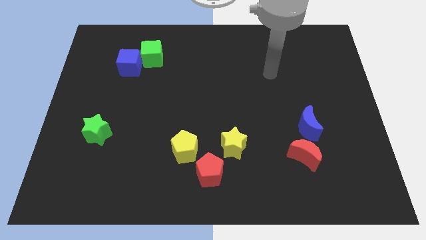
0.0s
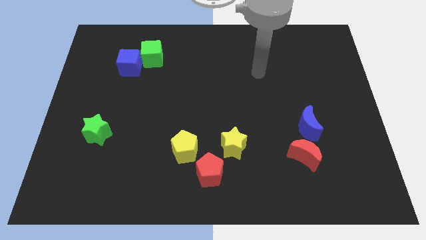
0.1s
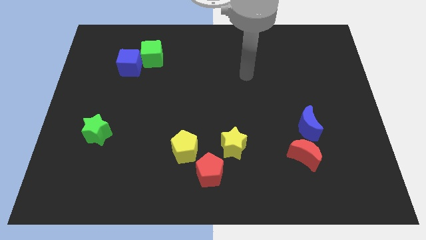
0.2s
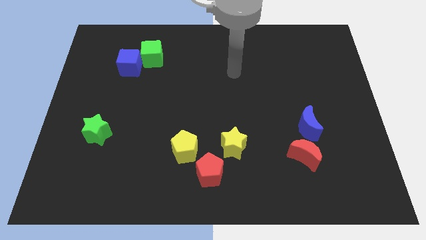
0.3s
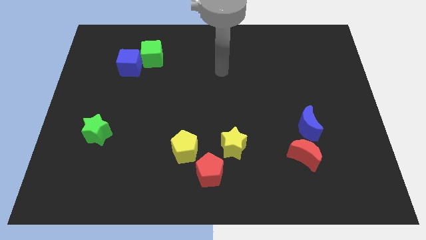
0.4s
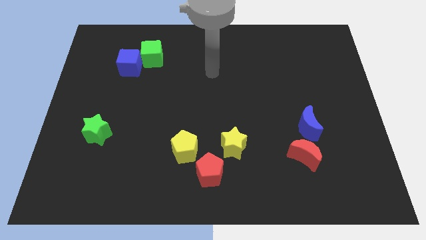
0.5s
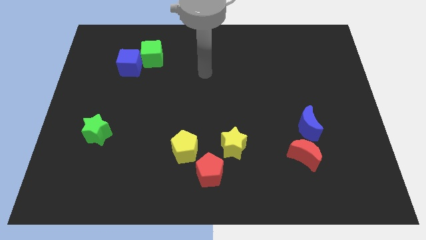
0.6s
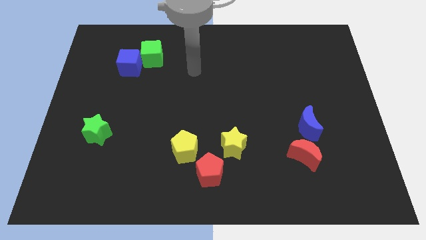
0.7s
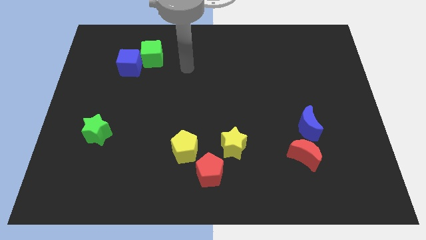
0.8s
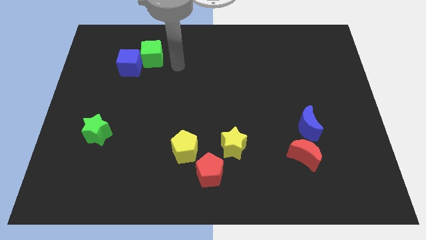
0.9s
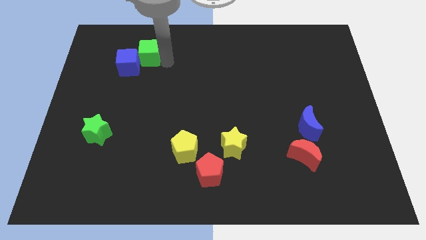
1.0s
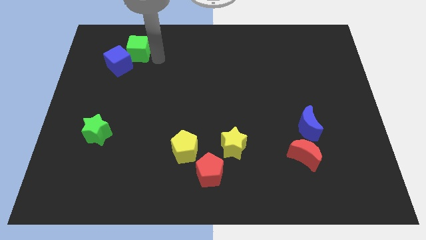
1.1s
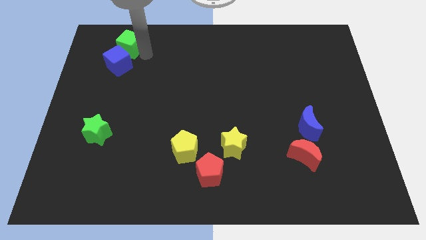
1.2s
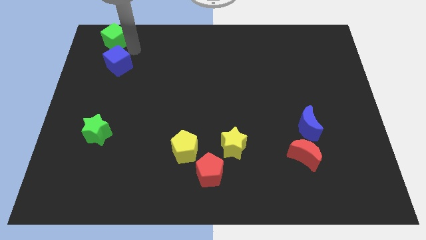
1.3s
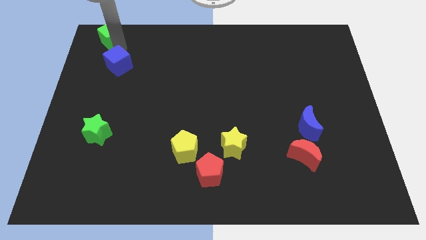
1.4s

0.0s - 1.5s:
move the blue cube away from the green cube

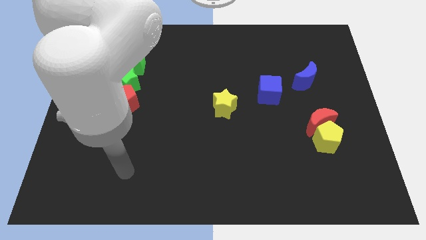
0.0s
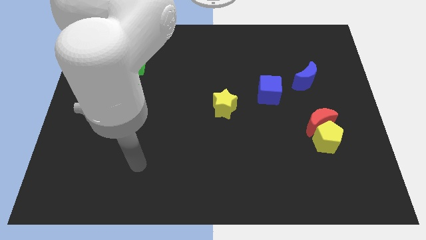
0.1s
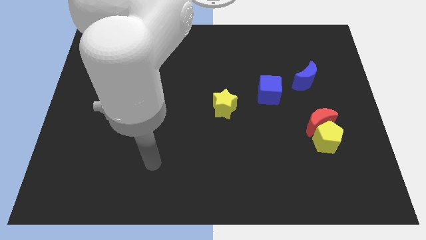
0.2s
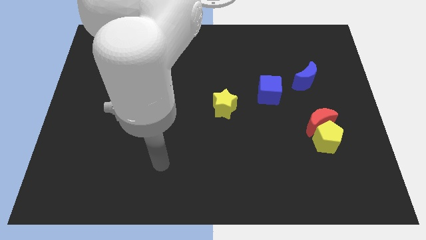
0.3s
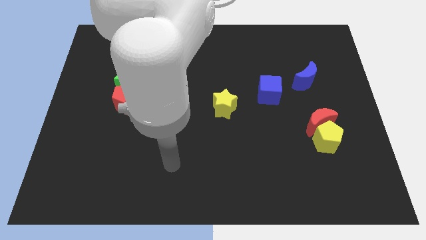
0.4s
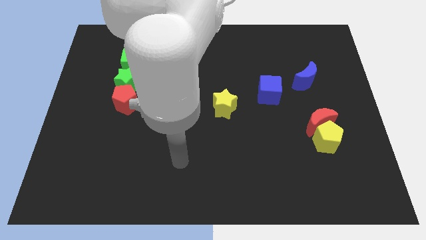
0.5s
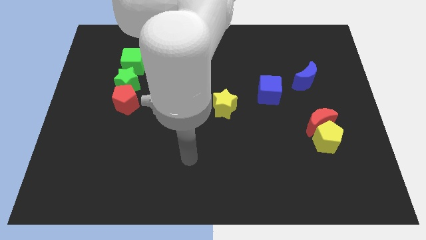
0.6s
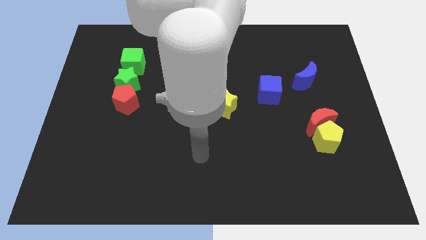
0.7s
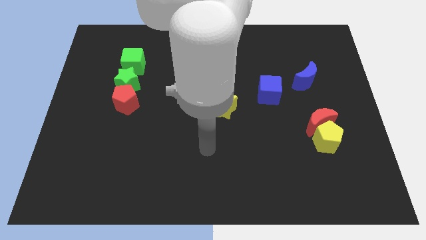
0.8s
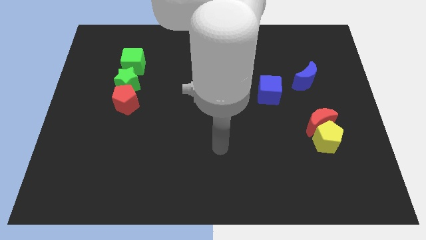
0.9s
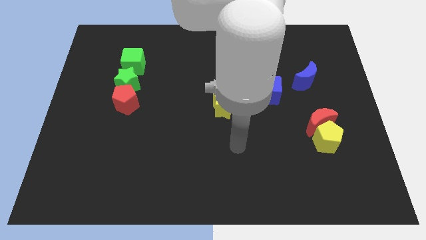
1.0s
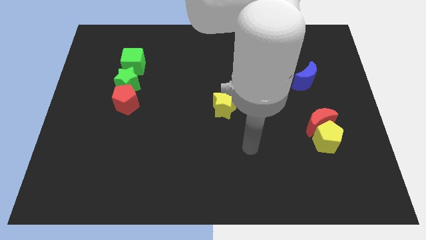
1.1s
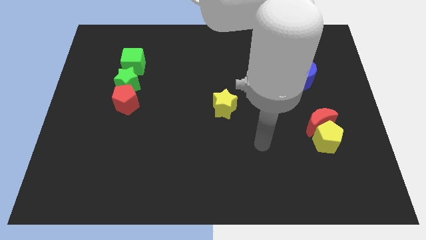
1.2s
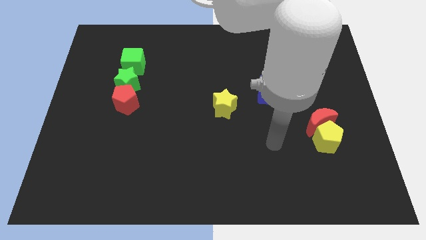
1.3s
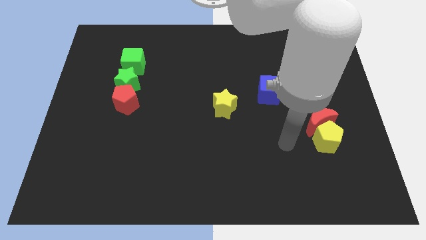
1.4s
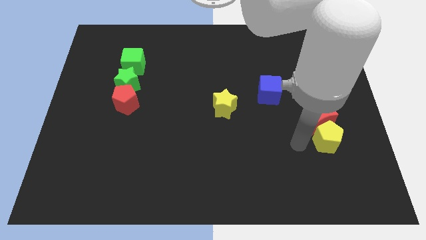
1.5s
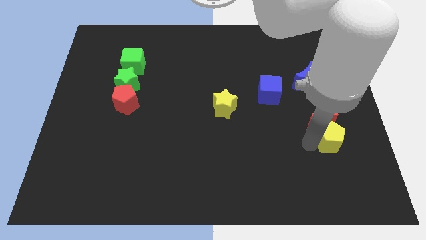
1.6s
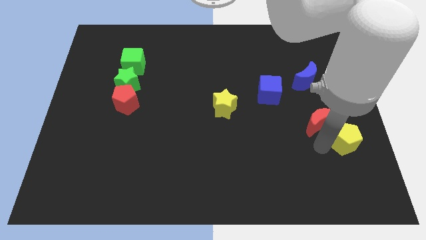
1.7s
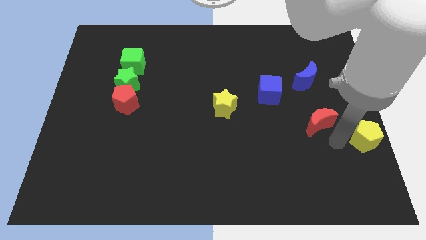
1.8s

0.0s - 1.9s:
move the red moon away from the yellow pentagon

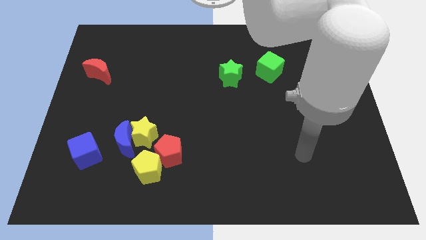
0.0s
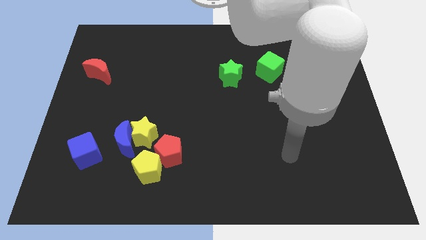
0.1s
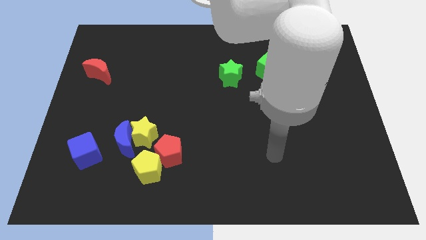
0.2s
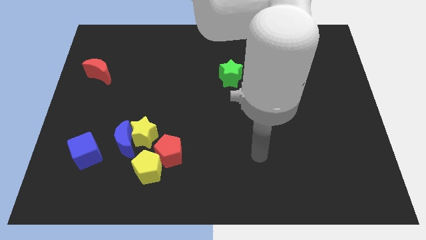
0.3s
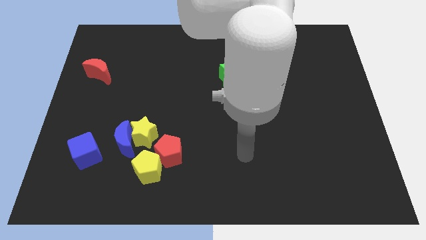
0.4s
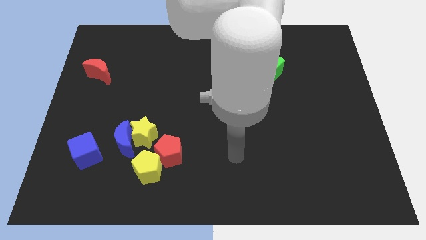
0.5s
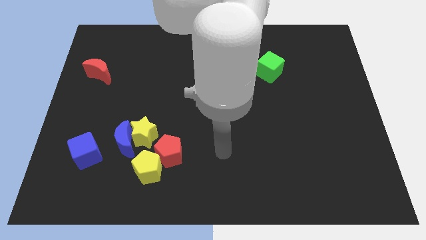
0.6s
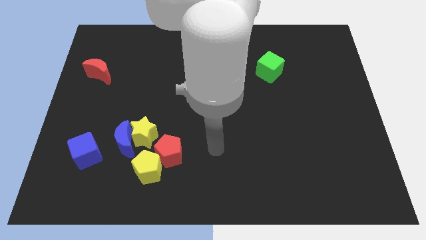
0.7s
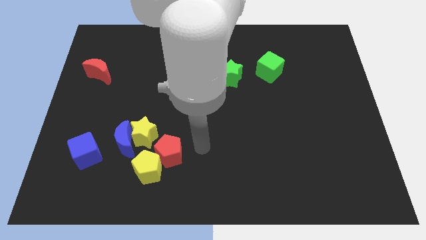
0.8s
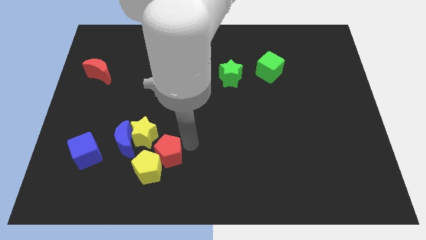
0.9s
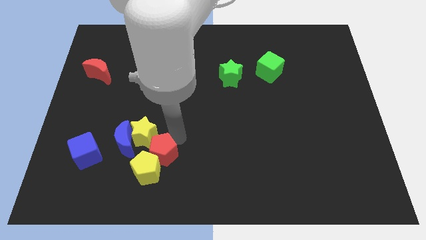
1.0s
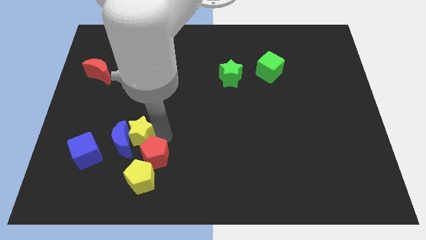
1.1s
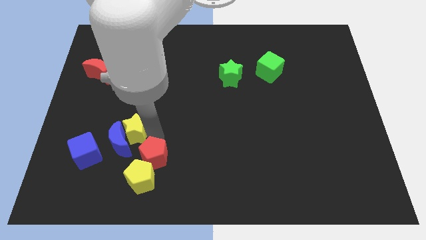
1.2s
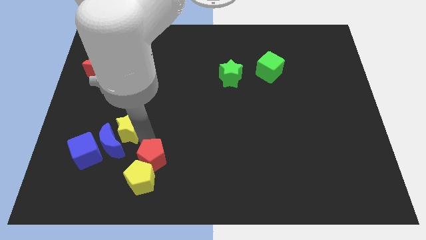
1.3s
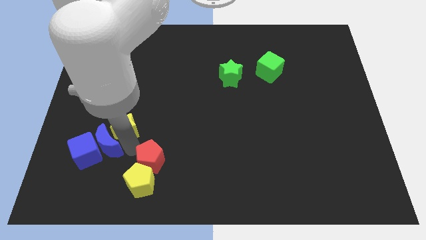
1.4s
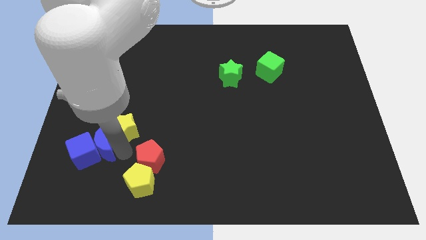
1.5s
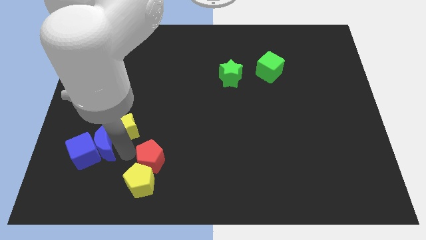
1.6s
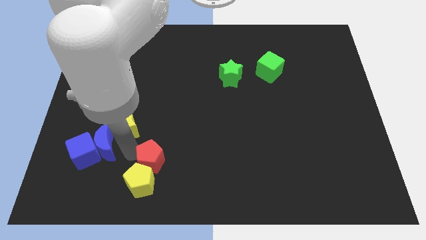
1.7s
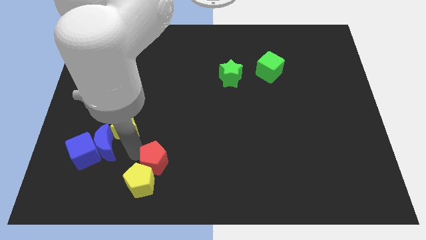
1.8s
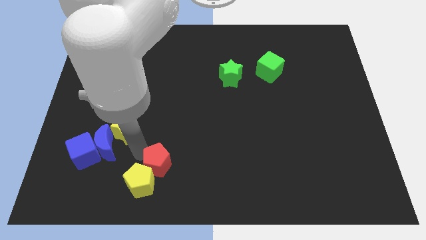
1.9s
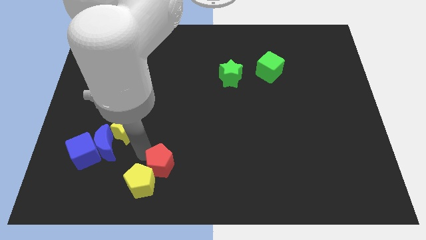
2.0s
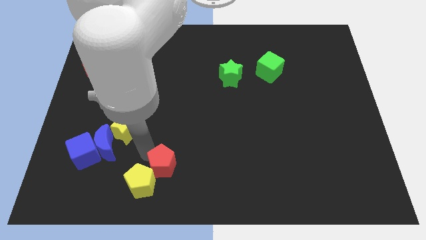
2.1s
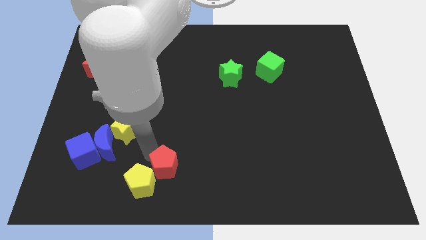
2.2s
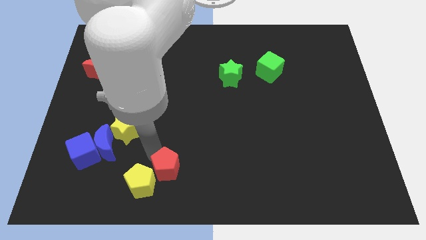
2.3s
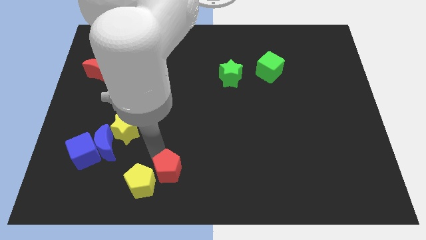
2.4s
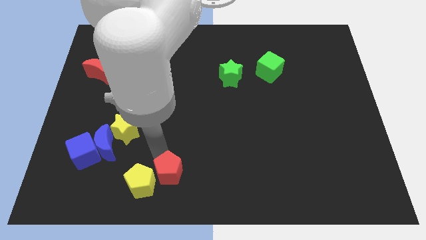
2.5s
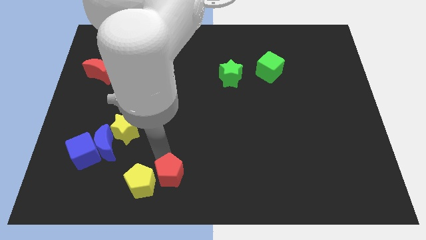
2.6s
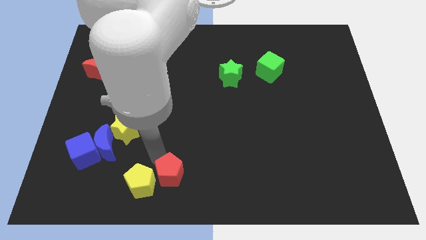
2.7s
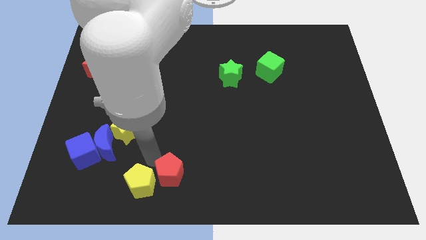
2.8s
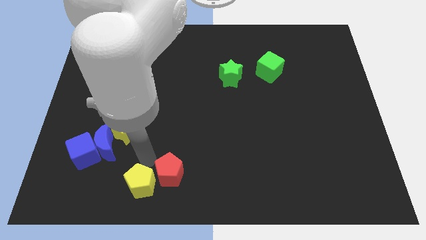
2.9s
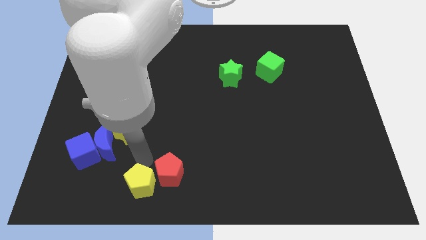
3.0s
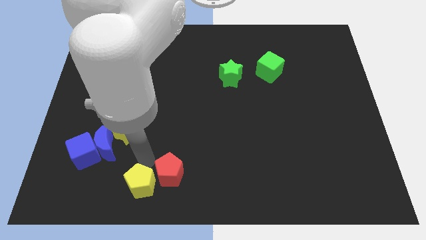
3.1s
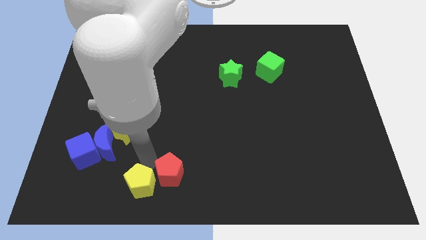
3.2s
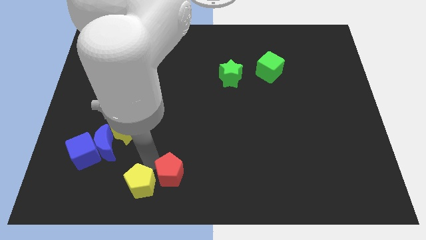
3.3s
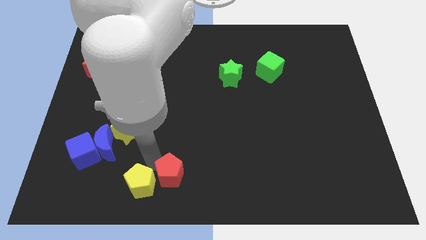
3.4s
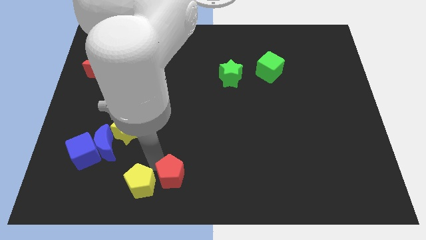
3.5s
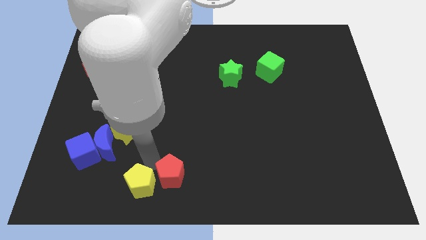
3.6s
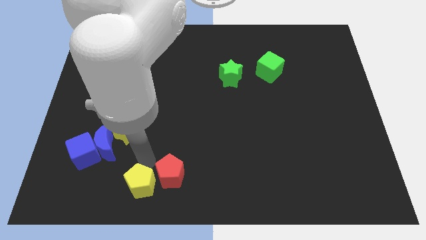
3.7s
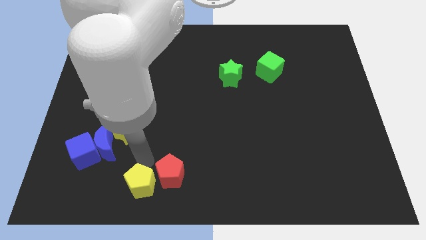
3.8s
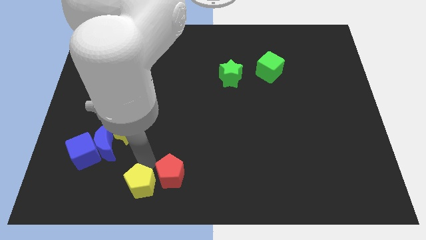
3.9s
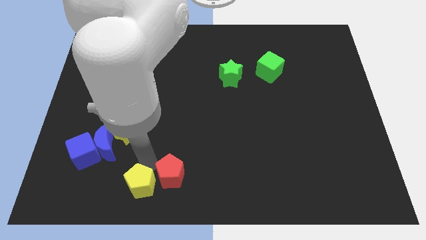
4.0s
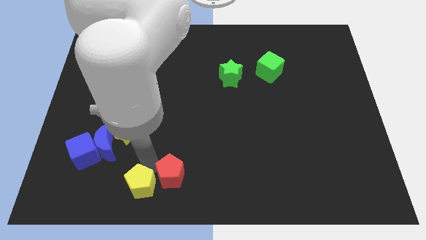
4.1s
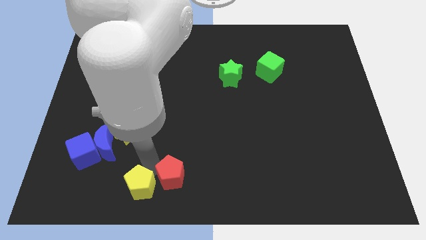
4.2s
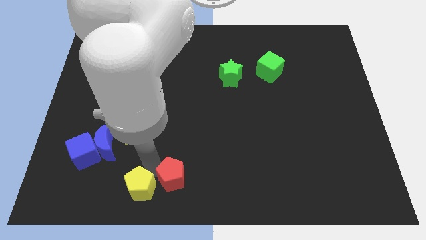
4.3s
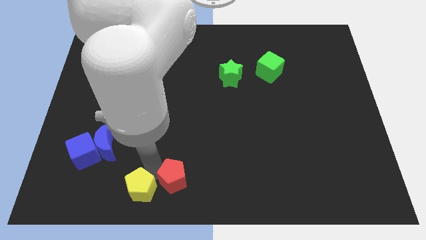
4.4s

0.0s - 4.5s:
move the red pentagon away from the yellow pentagon and yellow star

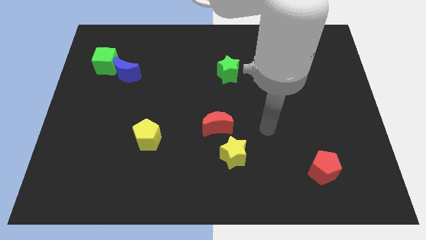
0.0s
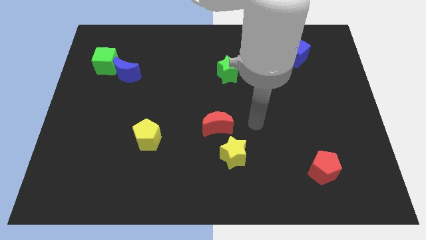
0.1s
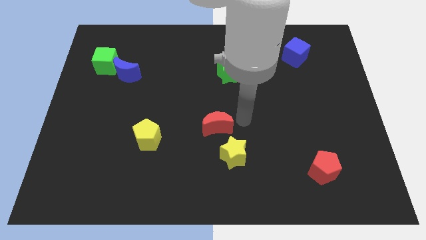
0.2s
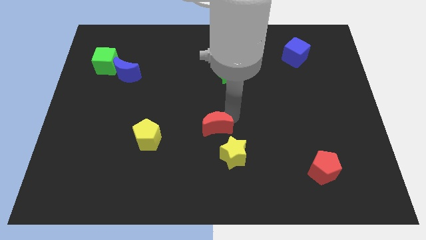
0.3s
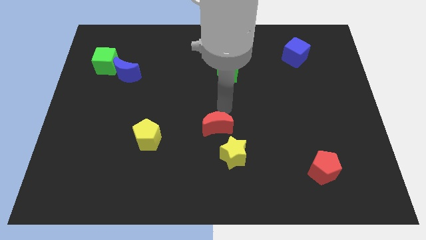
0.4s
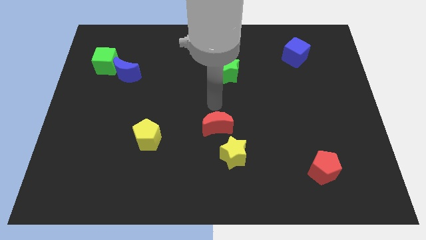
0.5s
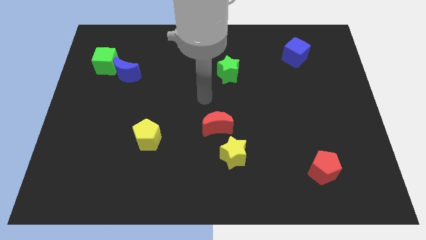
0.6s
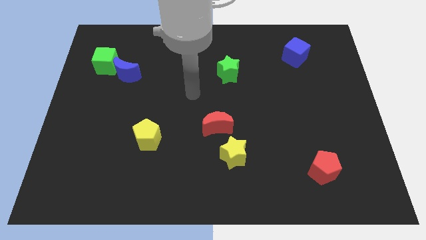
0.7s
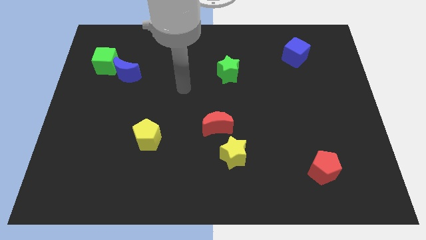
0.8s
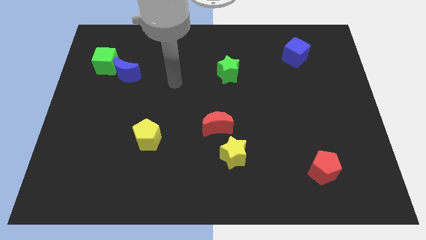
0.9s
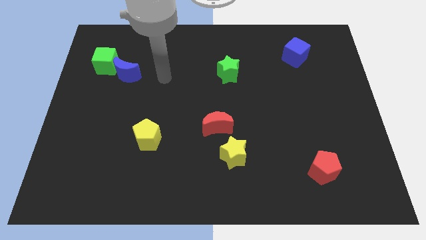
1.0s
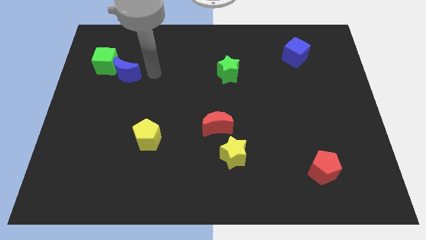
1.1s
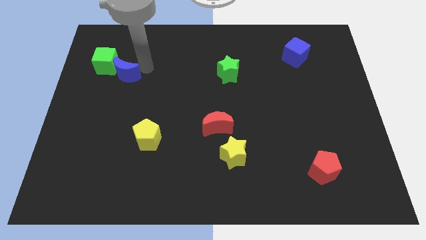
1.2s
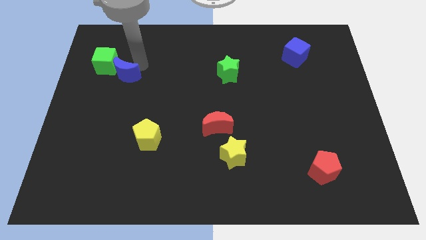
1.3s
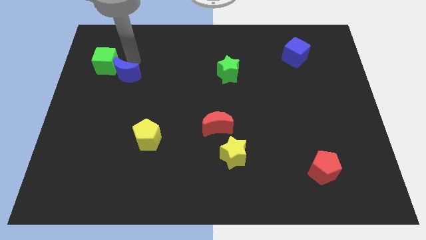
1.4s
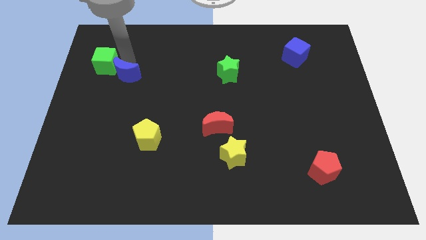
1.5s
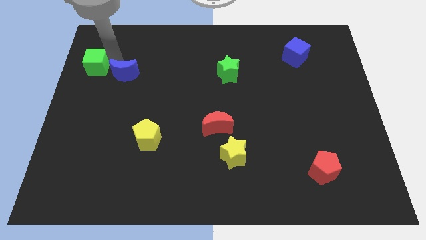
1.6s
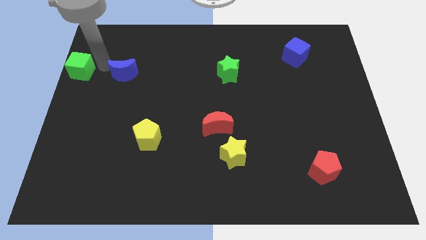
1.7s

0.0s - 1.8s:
pull the blue moon apart from the green cube
